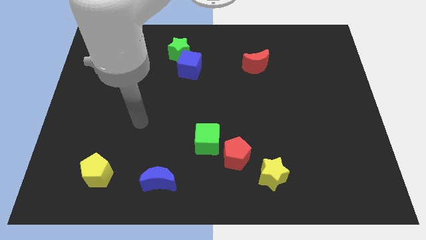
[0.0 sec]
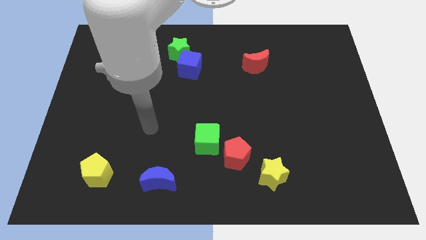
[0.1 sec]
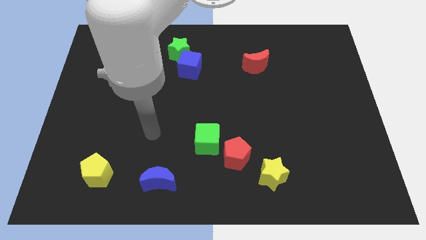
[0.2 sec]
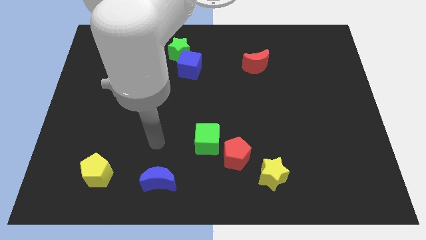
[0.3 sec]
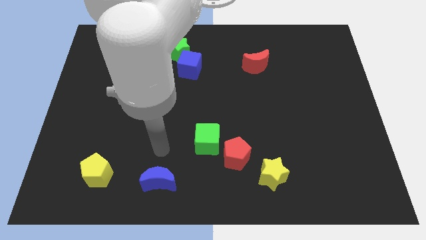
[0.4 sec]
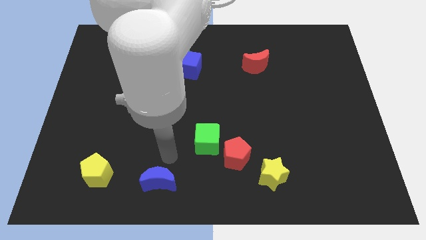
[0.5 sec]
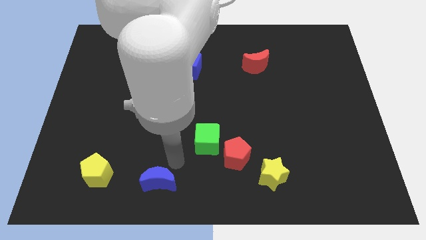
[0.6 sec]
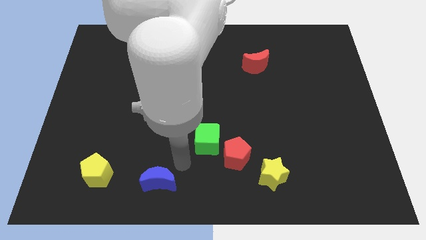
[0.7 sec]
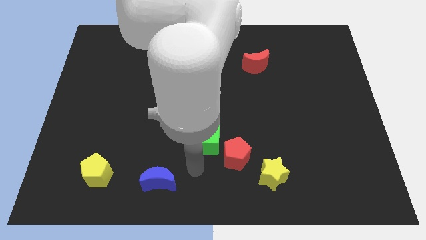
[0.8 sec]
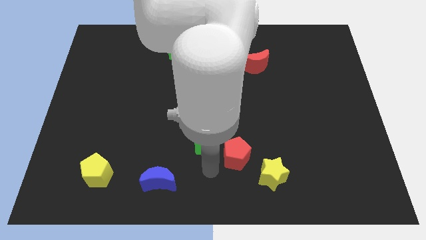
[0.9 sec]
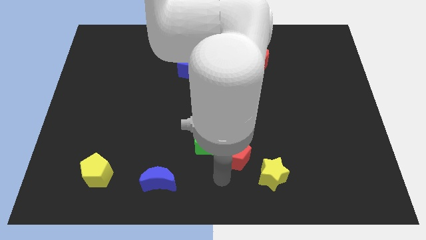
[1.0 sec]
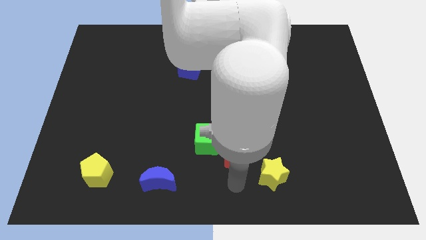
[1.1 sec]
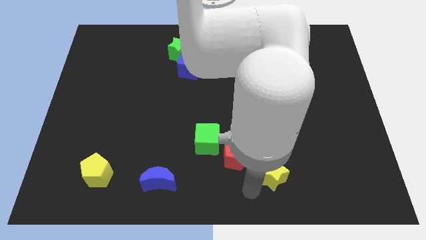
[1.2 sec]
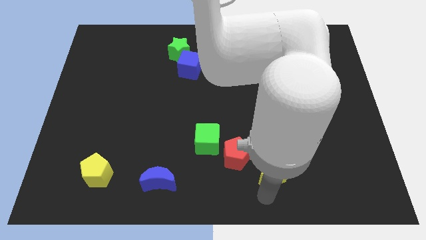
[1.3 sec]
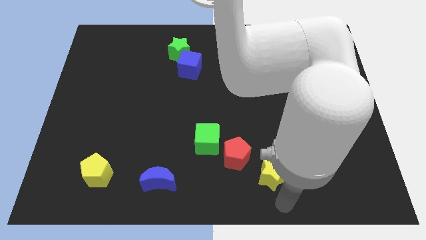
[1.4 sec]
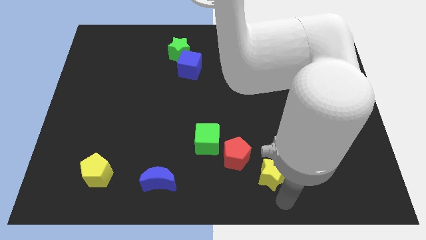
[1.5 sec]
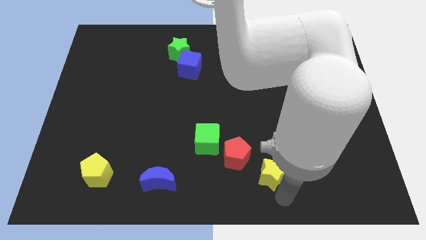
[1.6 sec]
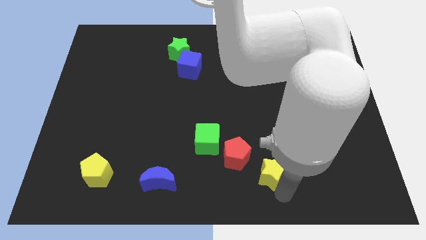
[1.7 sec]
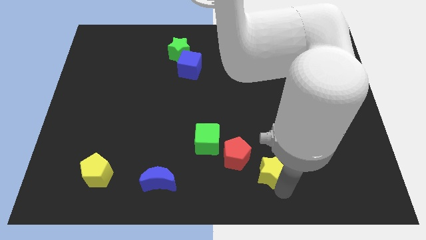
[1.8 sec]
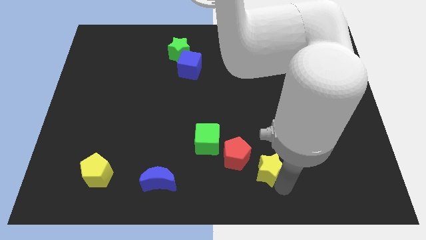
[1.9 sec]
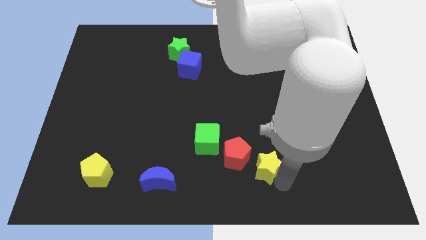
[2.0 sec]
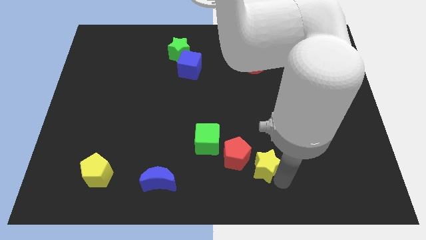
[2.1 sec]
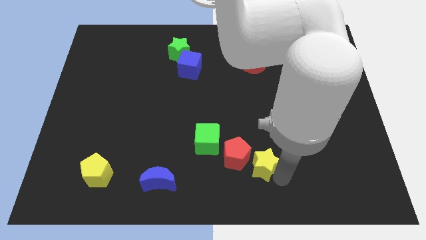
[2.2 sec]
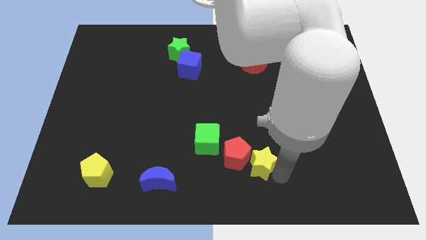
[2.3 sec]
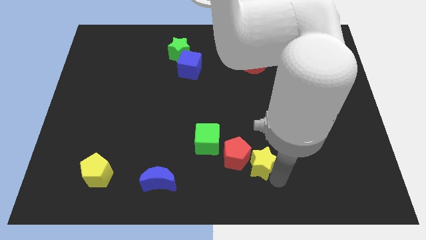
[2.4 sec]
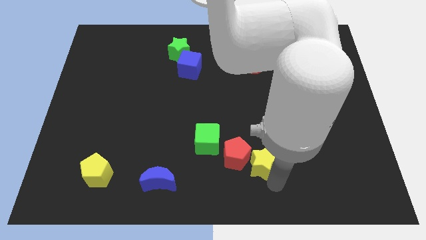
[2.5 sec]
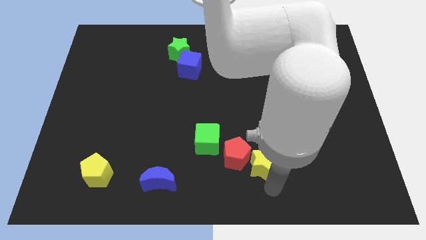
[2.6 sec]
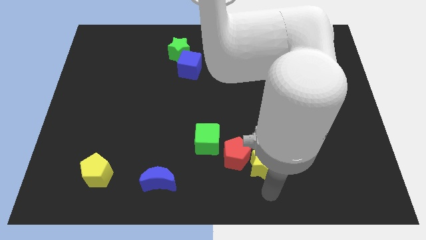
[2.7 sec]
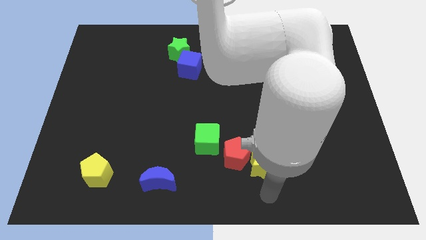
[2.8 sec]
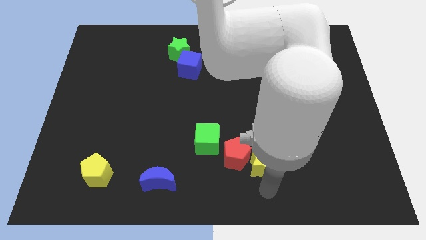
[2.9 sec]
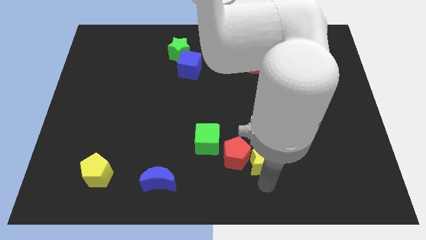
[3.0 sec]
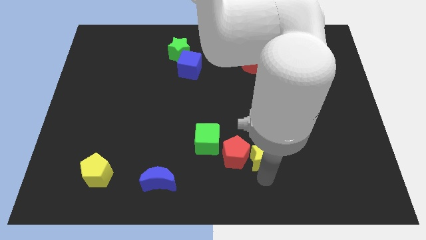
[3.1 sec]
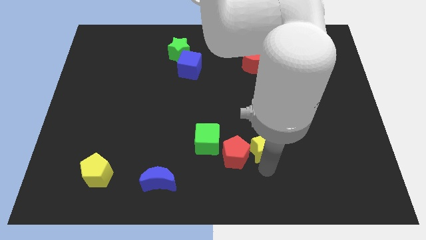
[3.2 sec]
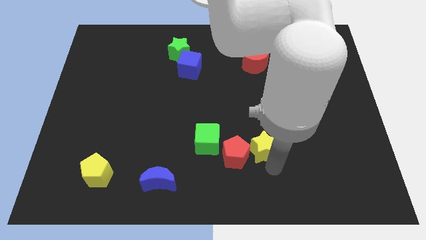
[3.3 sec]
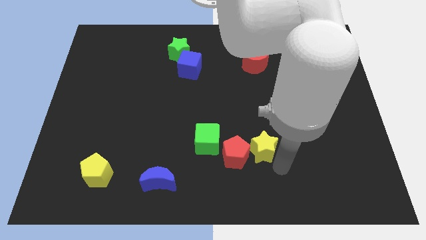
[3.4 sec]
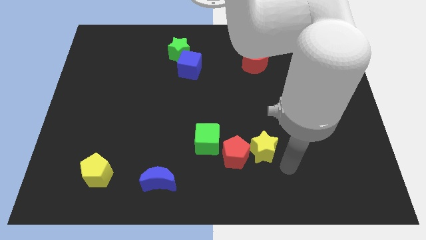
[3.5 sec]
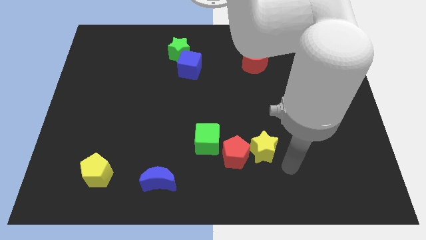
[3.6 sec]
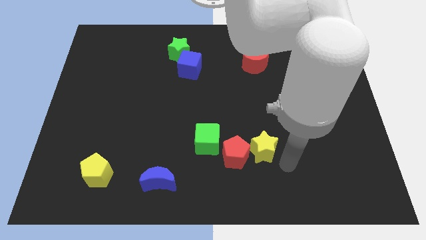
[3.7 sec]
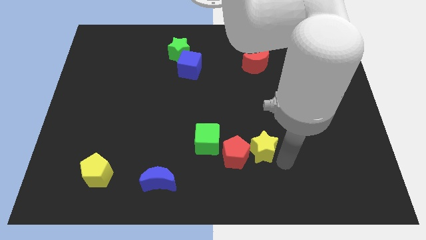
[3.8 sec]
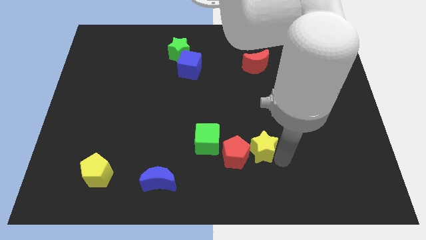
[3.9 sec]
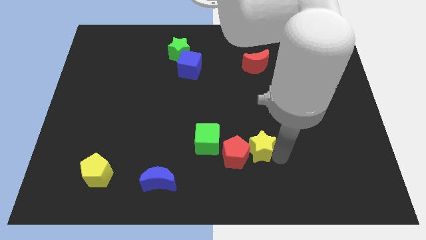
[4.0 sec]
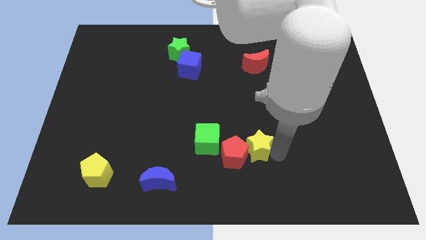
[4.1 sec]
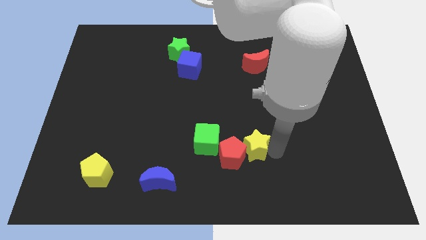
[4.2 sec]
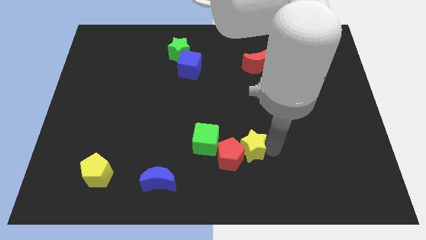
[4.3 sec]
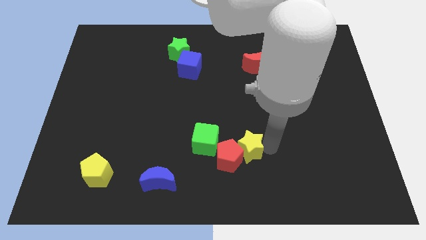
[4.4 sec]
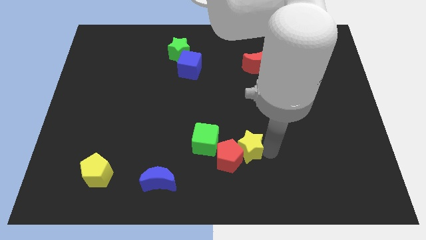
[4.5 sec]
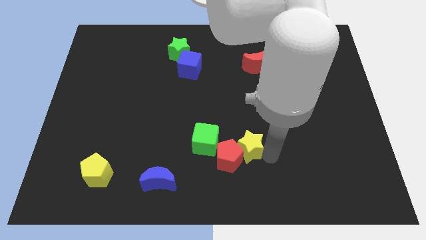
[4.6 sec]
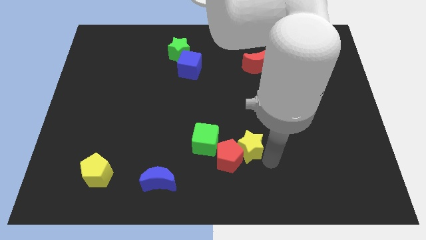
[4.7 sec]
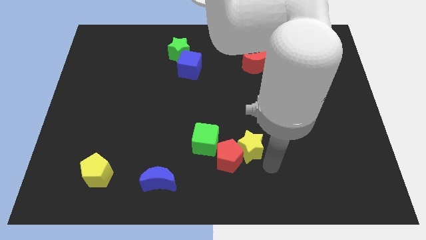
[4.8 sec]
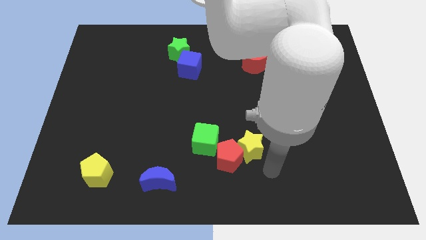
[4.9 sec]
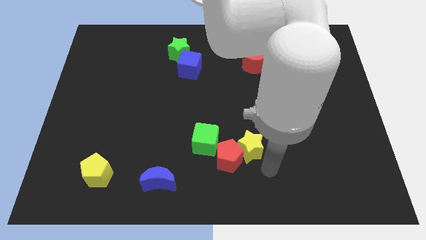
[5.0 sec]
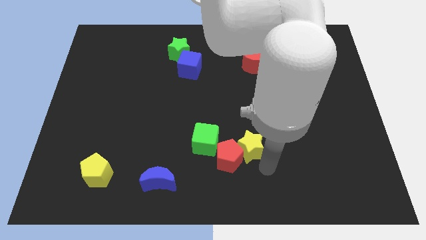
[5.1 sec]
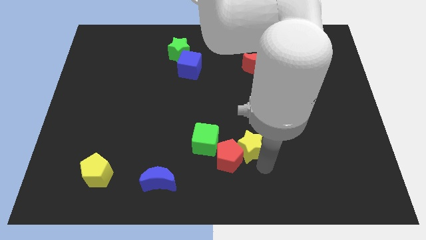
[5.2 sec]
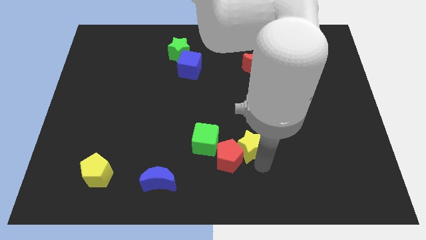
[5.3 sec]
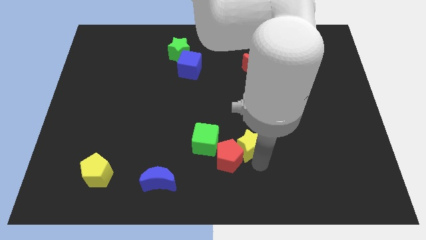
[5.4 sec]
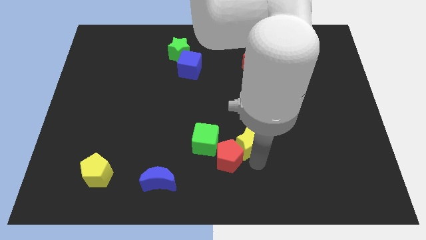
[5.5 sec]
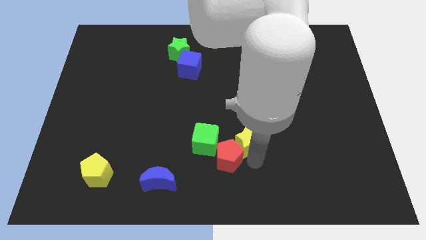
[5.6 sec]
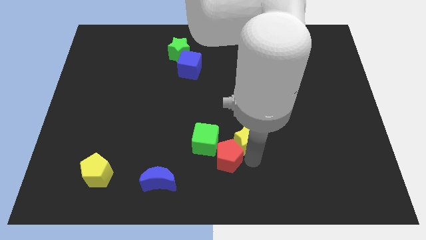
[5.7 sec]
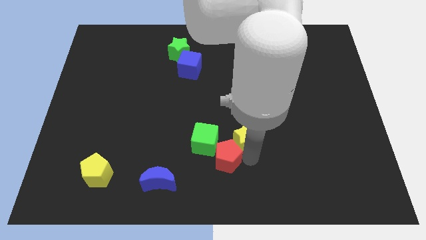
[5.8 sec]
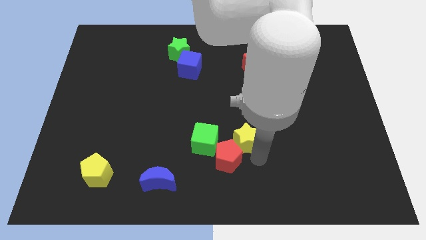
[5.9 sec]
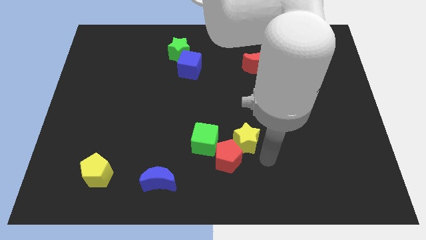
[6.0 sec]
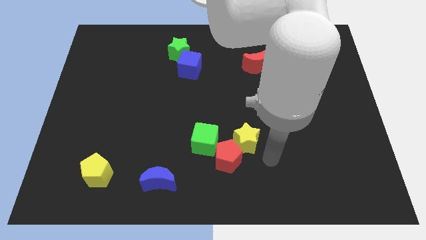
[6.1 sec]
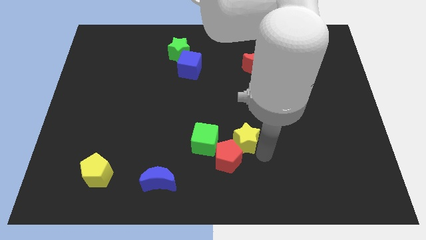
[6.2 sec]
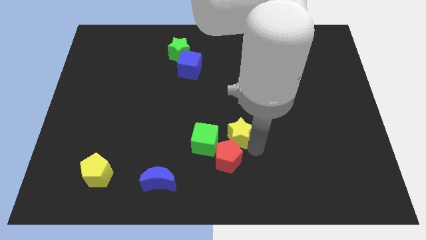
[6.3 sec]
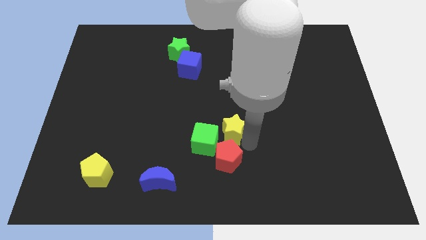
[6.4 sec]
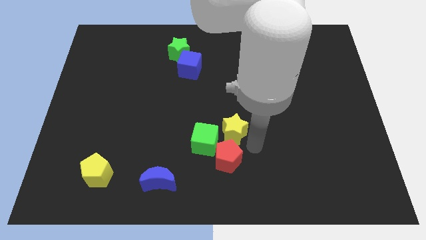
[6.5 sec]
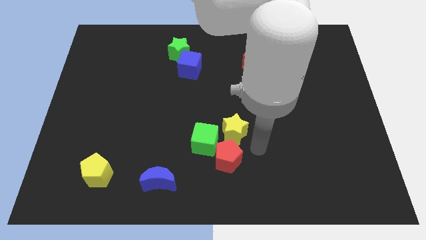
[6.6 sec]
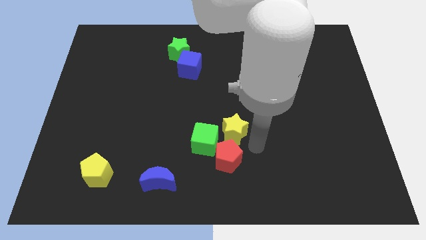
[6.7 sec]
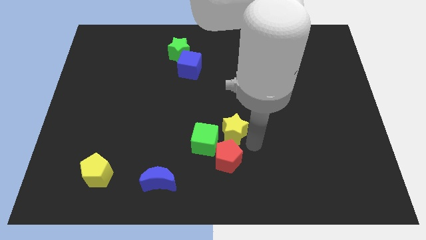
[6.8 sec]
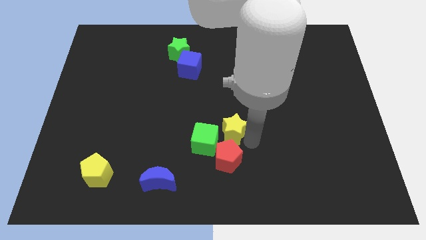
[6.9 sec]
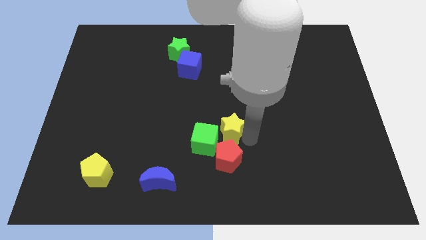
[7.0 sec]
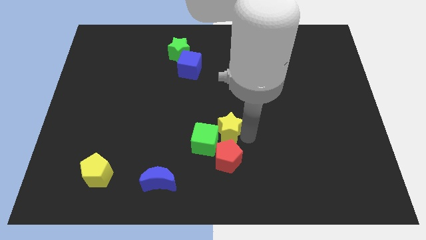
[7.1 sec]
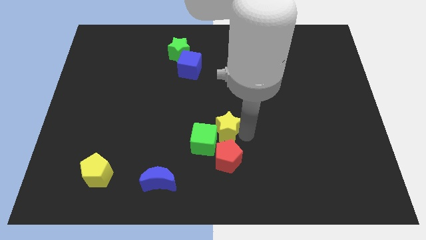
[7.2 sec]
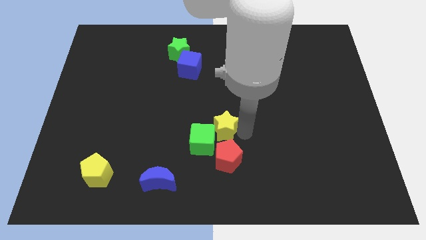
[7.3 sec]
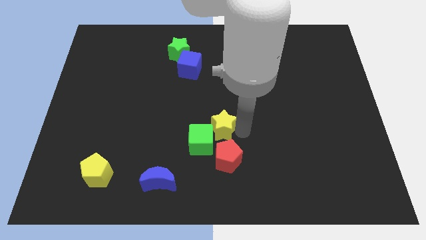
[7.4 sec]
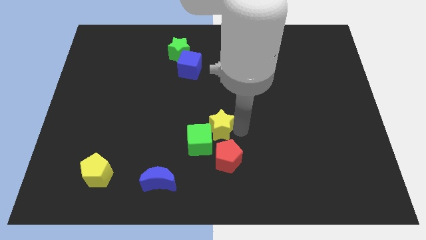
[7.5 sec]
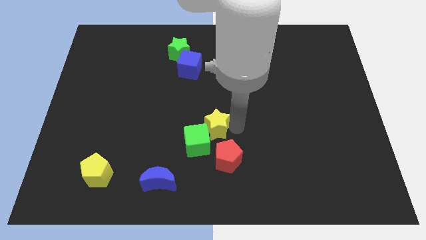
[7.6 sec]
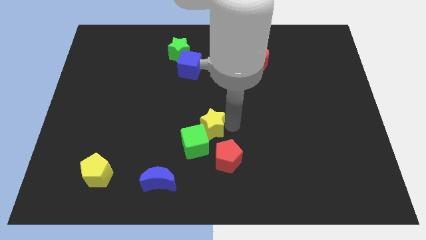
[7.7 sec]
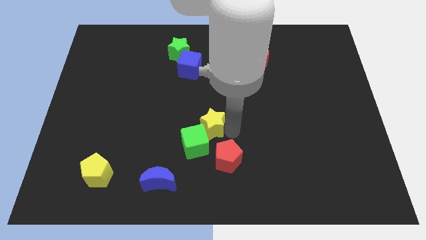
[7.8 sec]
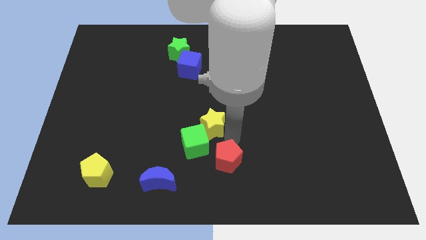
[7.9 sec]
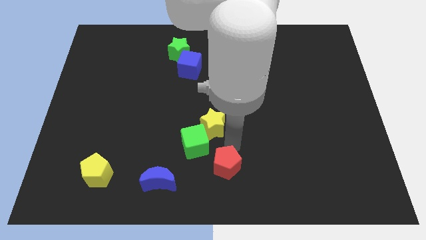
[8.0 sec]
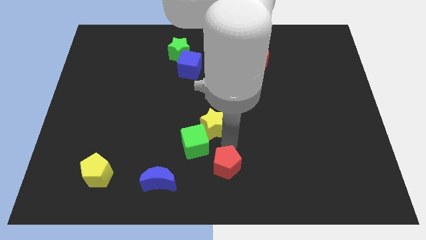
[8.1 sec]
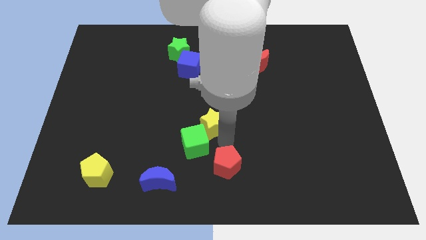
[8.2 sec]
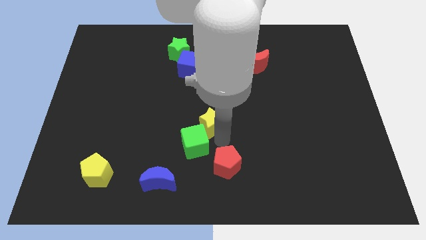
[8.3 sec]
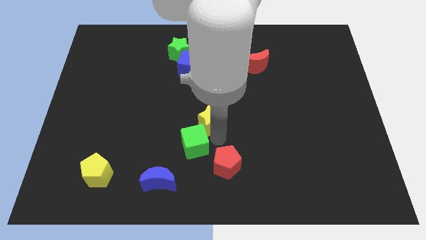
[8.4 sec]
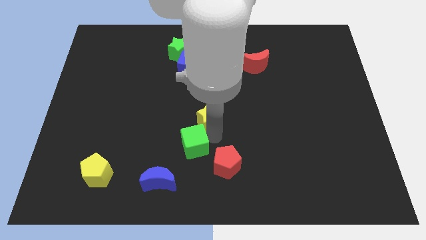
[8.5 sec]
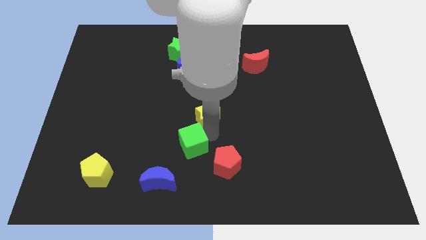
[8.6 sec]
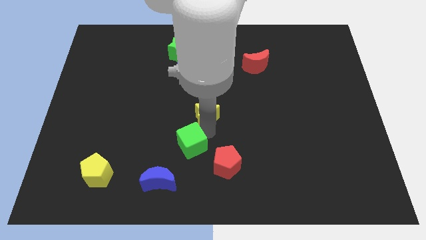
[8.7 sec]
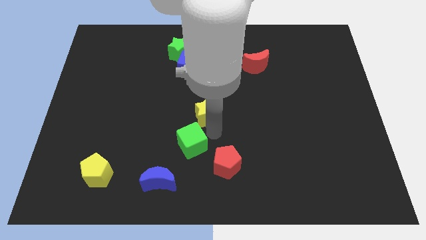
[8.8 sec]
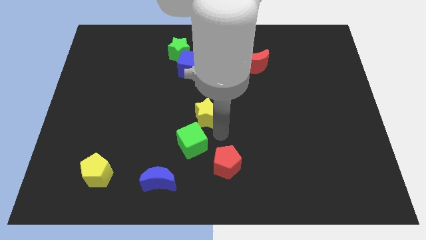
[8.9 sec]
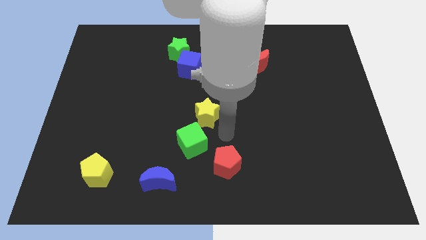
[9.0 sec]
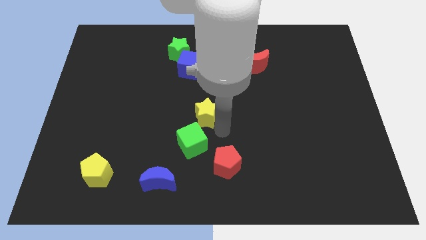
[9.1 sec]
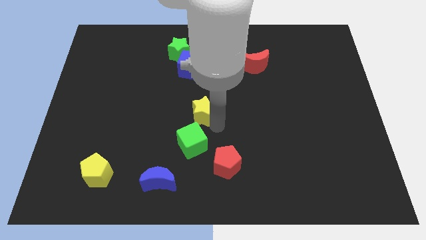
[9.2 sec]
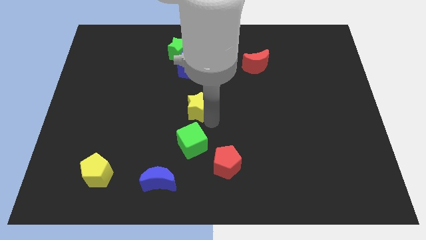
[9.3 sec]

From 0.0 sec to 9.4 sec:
move the yellow star to the bottom side of the blue cube
